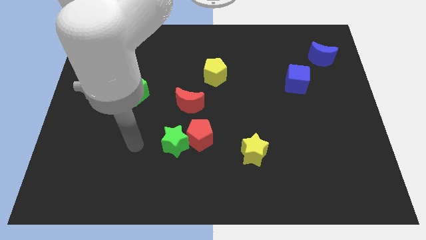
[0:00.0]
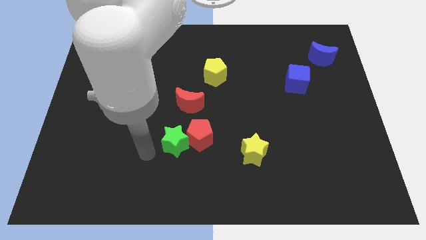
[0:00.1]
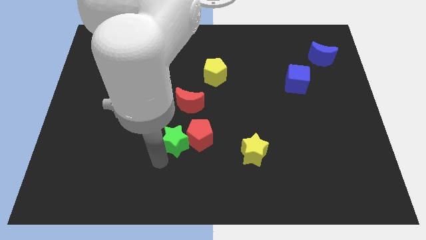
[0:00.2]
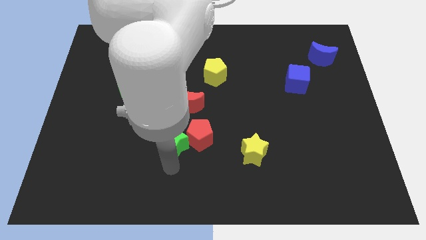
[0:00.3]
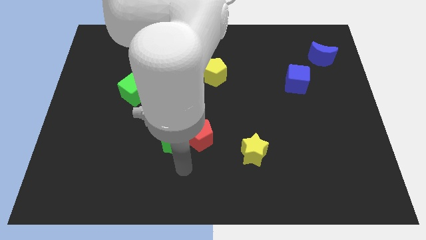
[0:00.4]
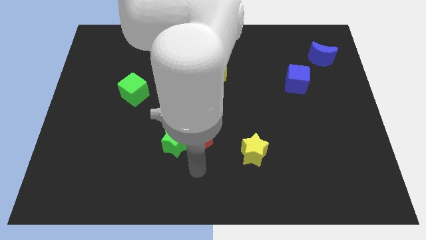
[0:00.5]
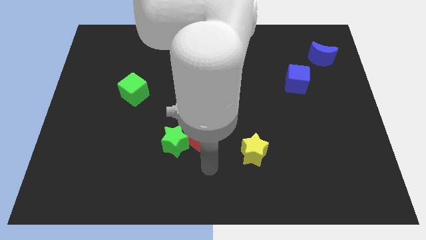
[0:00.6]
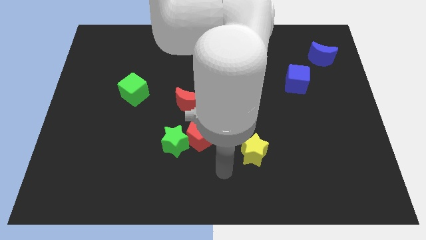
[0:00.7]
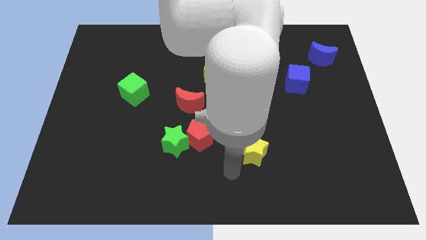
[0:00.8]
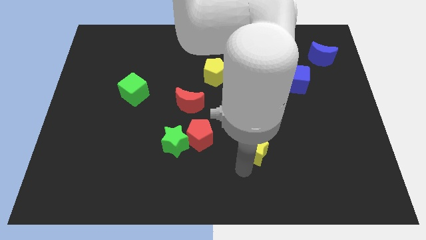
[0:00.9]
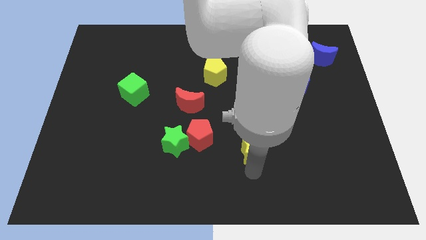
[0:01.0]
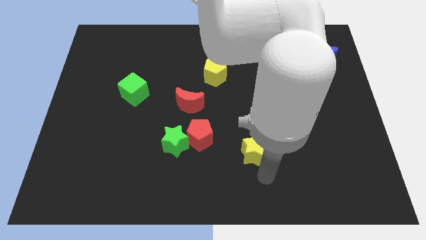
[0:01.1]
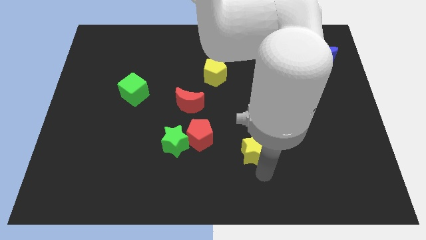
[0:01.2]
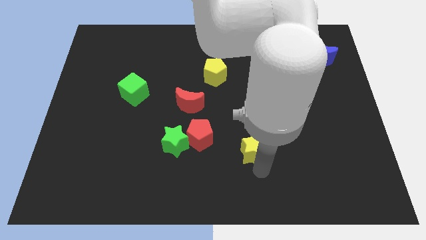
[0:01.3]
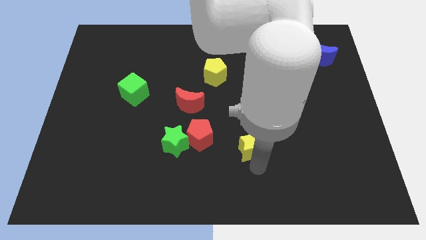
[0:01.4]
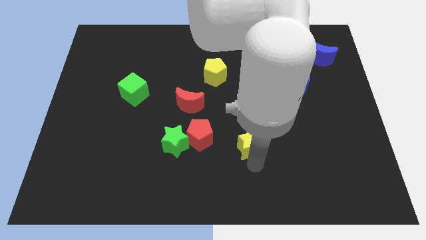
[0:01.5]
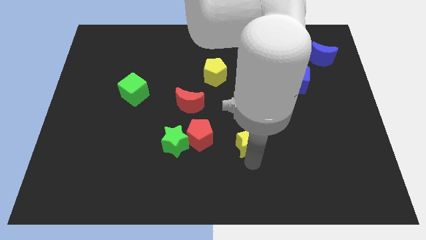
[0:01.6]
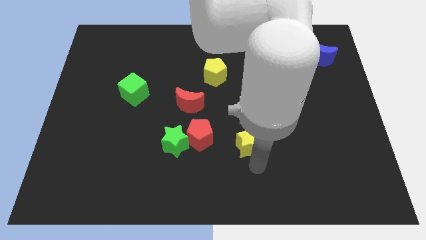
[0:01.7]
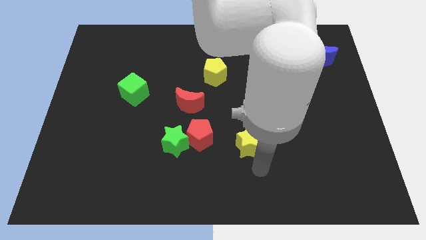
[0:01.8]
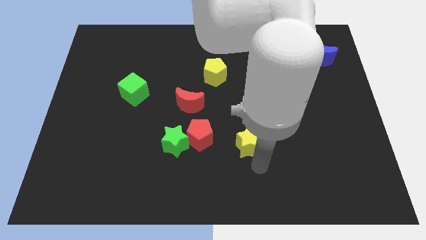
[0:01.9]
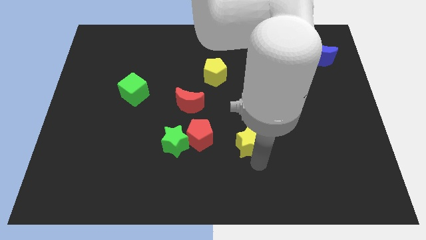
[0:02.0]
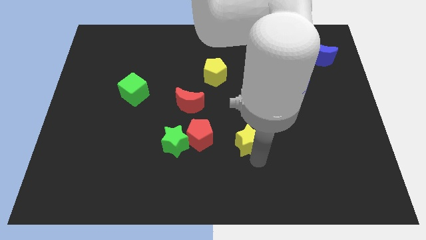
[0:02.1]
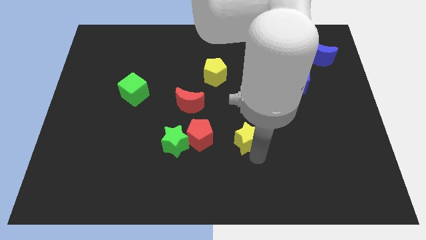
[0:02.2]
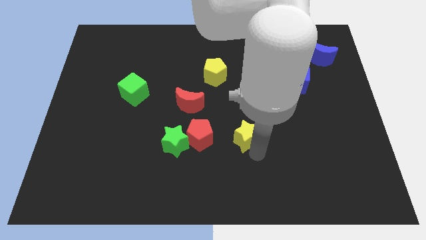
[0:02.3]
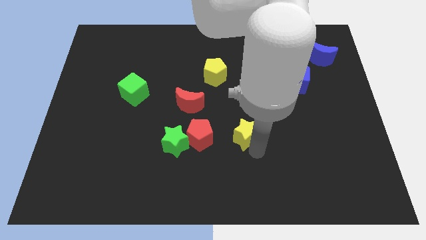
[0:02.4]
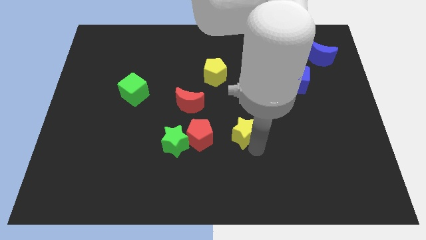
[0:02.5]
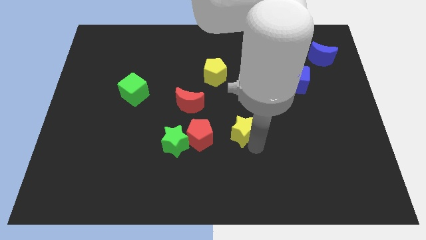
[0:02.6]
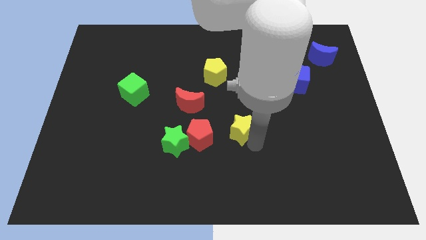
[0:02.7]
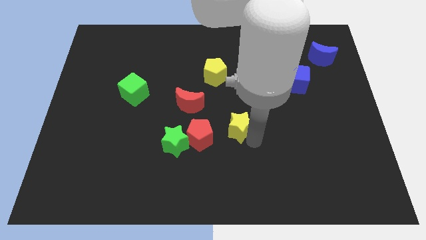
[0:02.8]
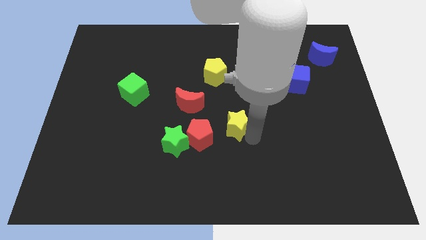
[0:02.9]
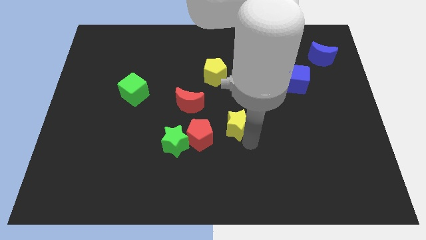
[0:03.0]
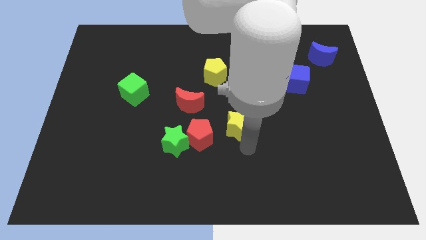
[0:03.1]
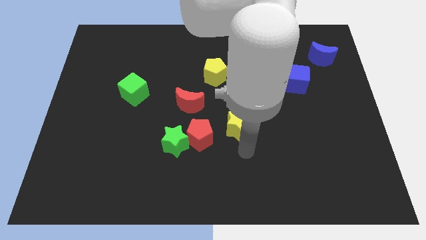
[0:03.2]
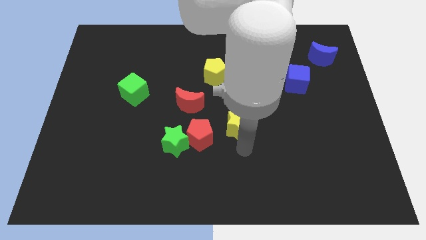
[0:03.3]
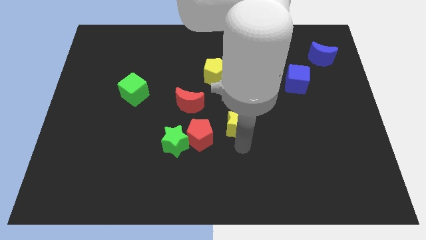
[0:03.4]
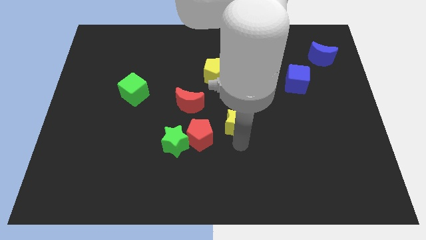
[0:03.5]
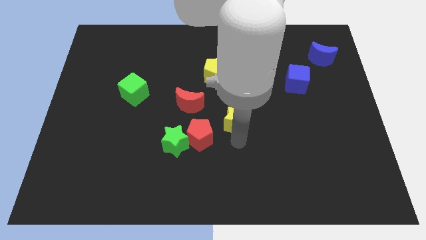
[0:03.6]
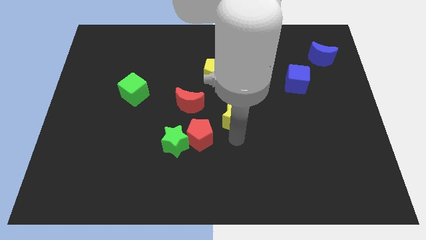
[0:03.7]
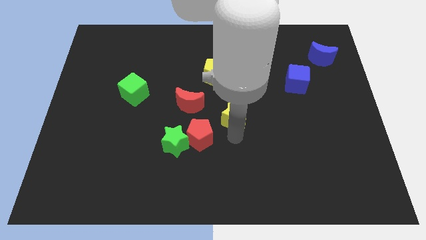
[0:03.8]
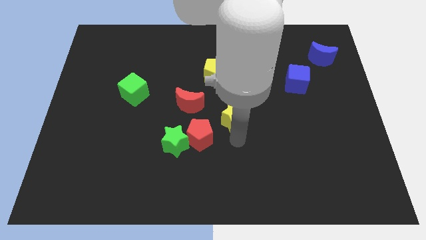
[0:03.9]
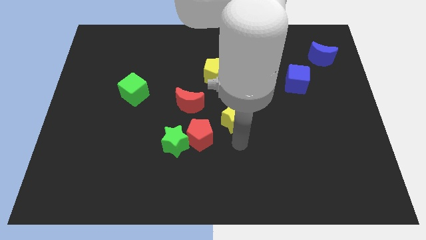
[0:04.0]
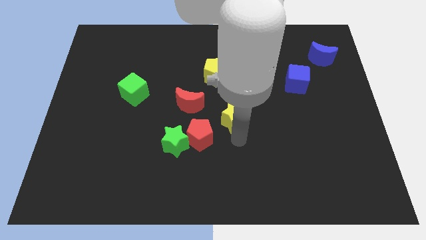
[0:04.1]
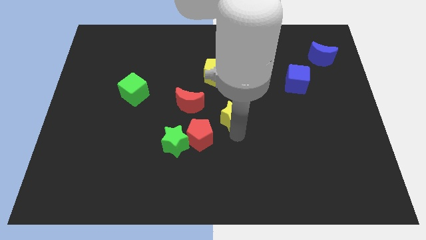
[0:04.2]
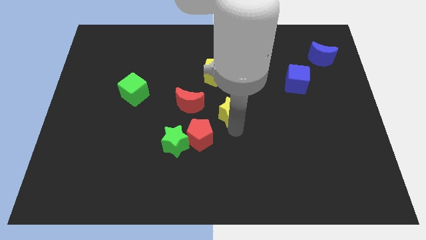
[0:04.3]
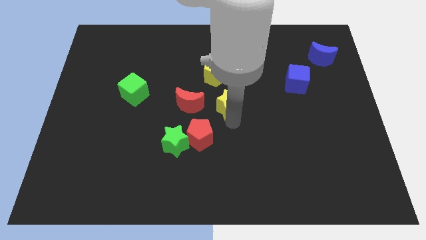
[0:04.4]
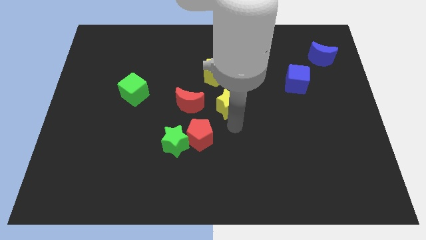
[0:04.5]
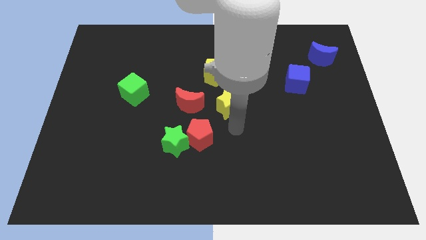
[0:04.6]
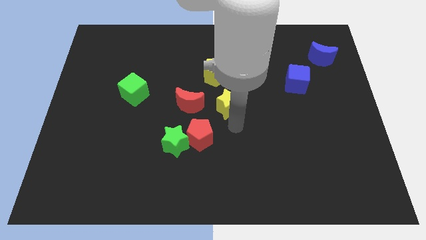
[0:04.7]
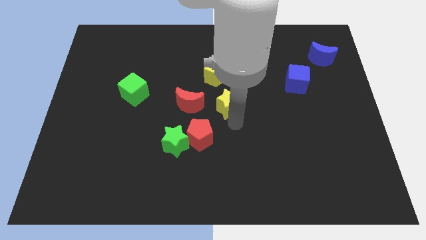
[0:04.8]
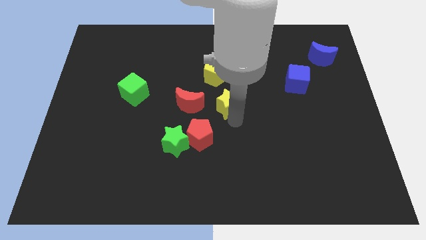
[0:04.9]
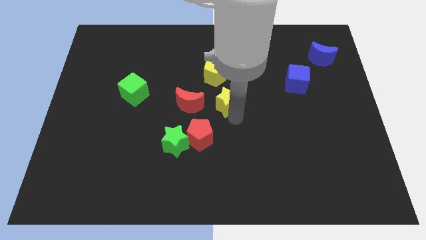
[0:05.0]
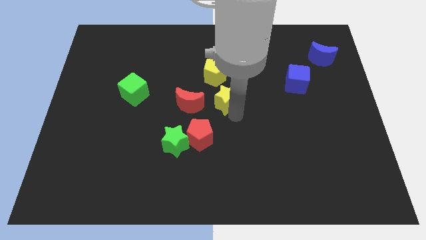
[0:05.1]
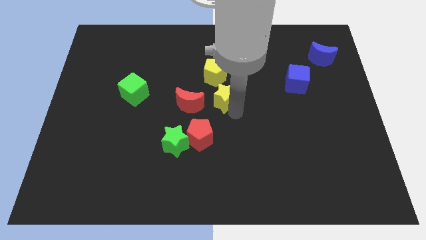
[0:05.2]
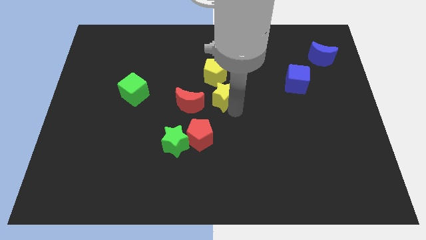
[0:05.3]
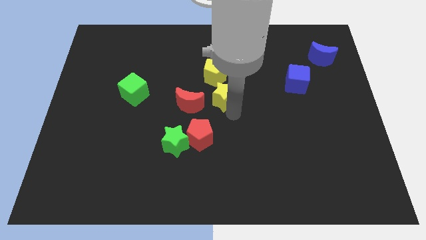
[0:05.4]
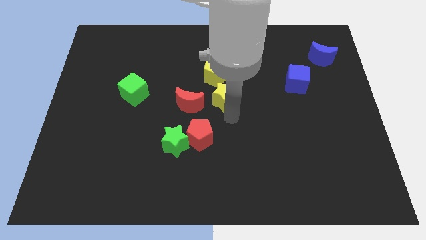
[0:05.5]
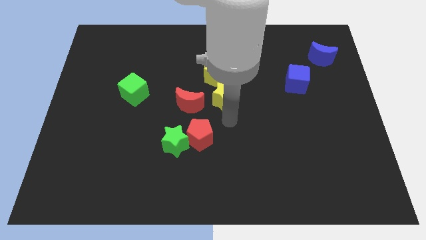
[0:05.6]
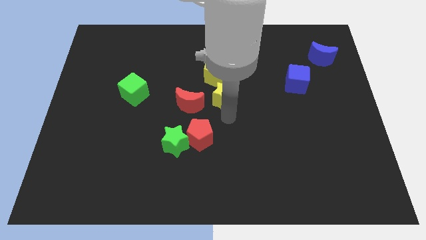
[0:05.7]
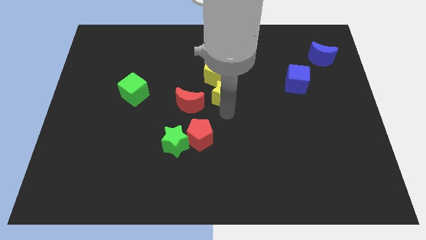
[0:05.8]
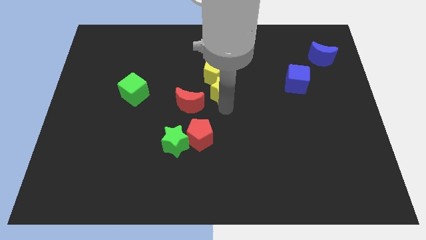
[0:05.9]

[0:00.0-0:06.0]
push the yellow star towards the yellow pentagon

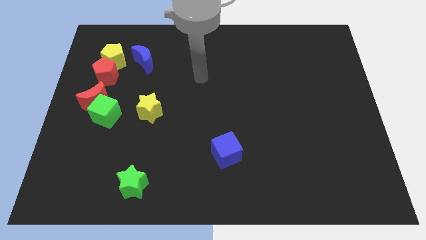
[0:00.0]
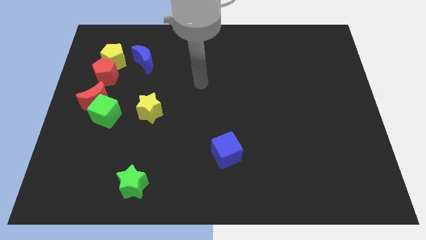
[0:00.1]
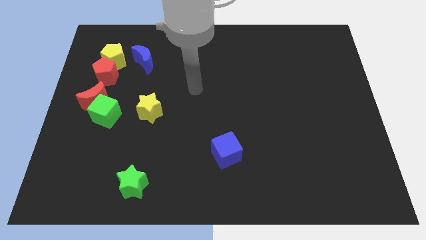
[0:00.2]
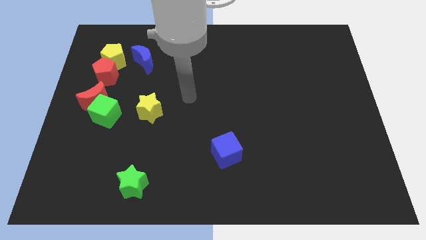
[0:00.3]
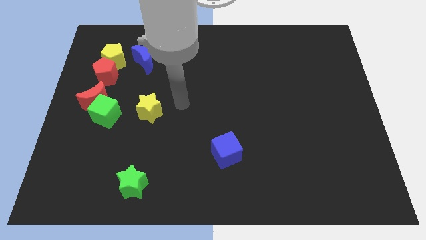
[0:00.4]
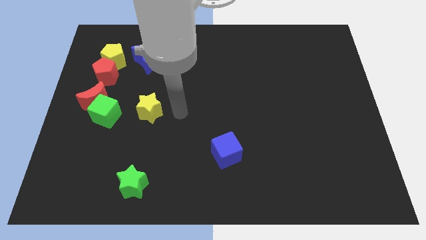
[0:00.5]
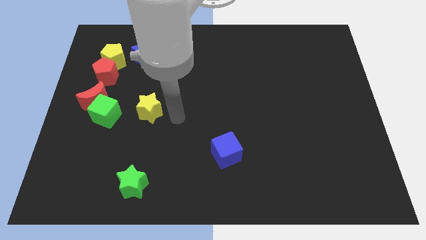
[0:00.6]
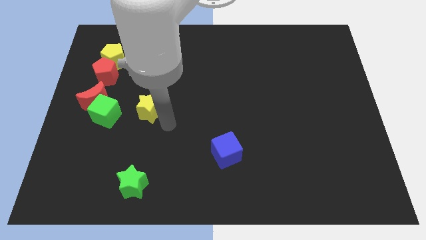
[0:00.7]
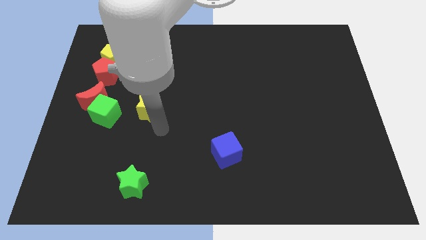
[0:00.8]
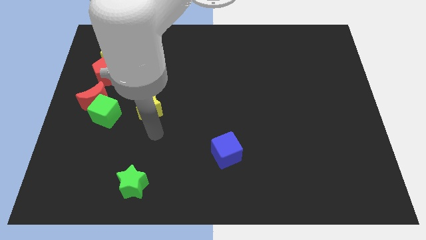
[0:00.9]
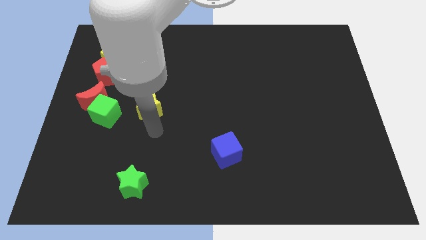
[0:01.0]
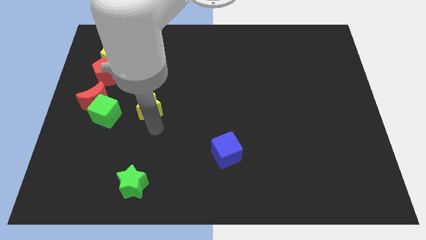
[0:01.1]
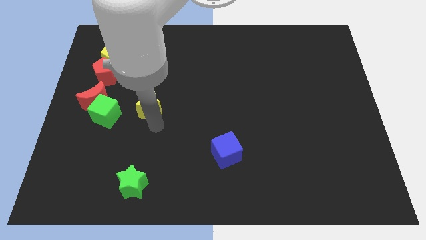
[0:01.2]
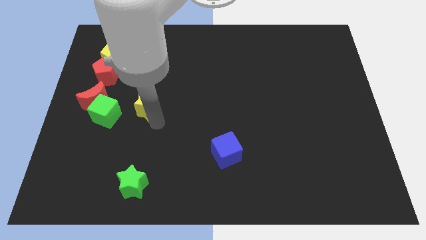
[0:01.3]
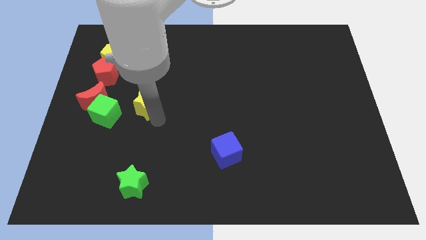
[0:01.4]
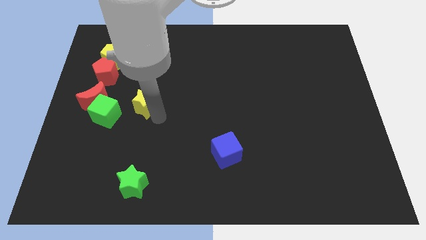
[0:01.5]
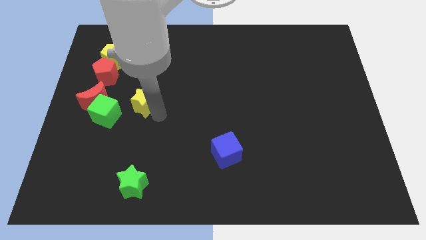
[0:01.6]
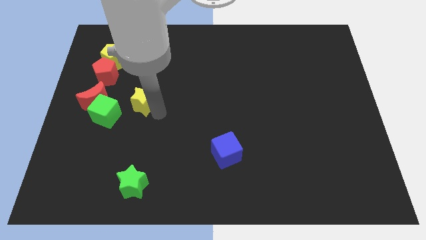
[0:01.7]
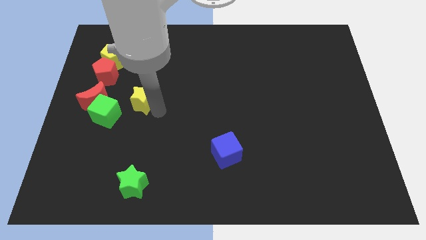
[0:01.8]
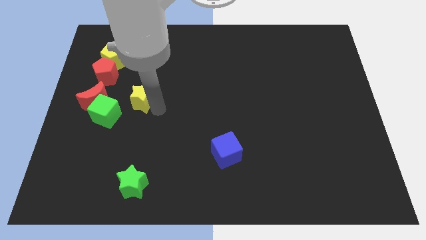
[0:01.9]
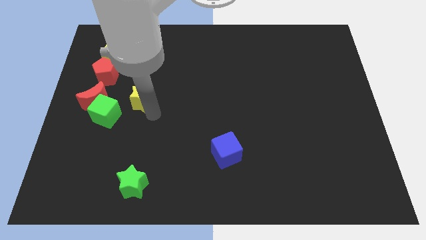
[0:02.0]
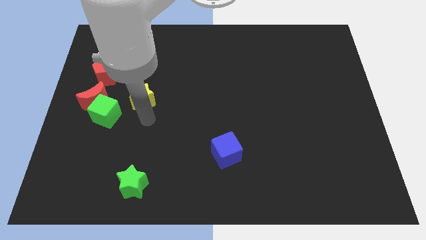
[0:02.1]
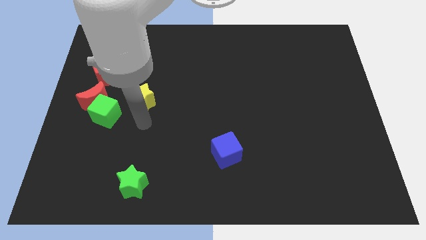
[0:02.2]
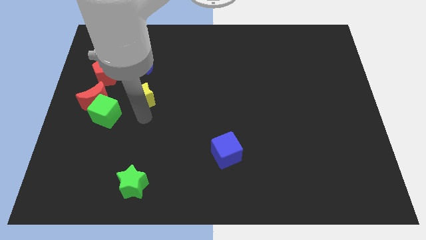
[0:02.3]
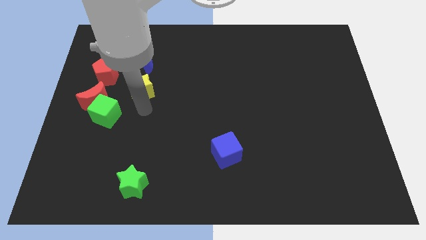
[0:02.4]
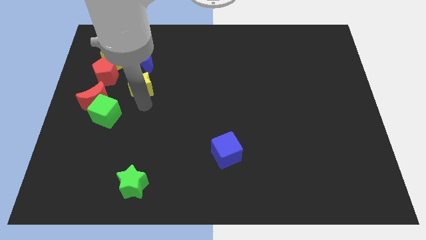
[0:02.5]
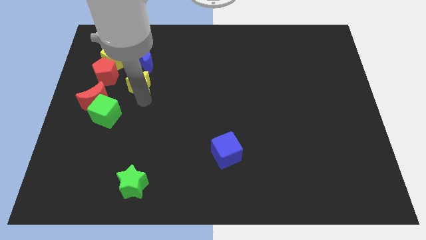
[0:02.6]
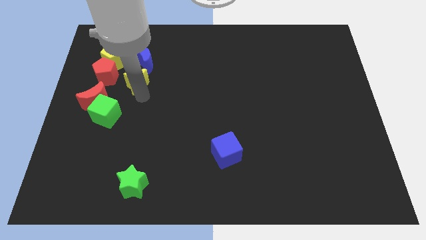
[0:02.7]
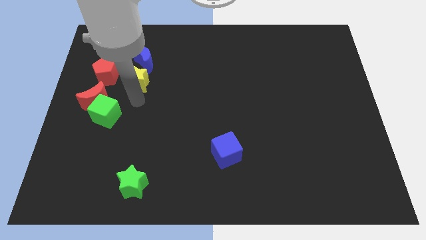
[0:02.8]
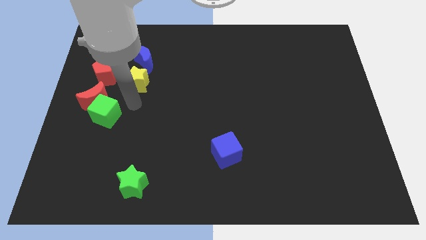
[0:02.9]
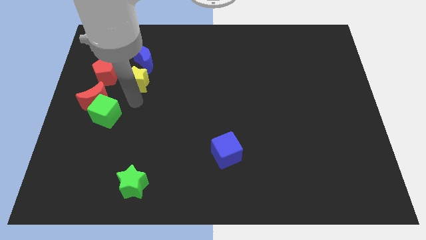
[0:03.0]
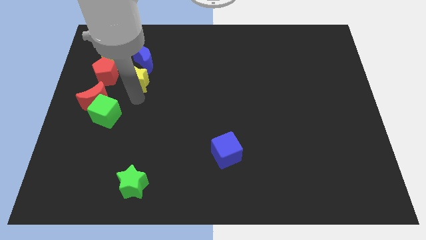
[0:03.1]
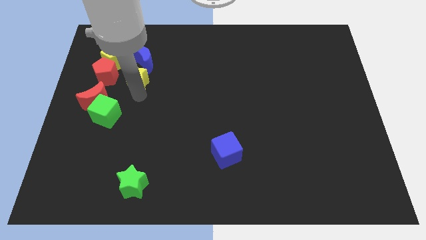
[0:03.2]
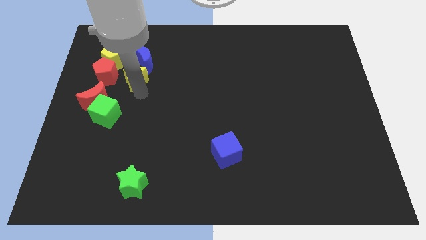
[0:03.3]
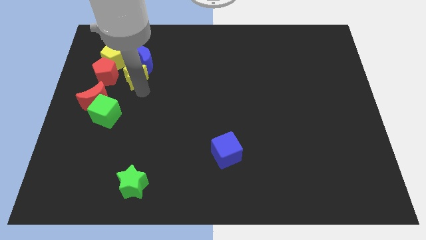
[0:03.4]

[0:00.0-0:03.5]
slide the yellow star to the blue moon
